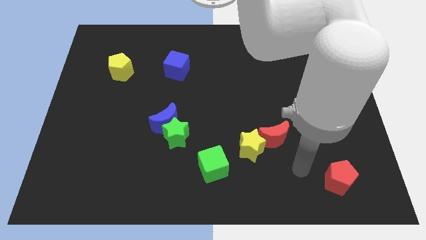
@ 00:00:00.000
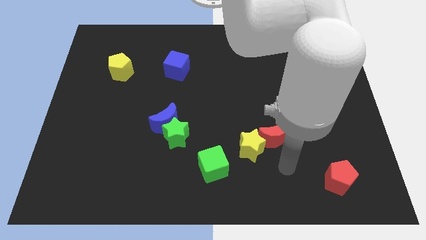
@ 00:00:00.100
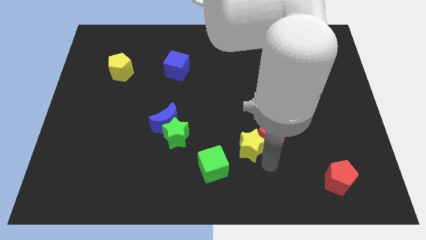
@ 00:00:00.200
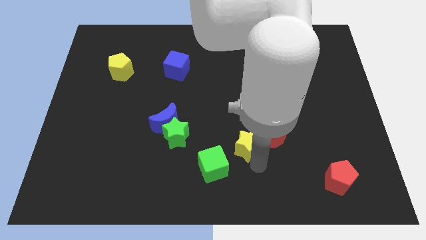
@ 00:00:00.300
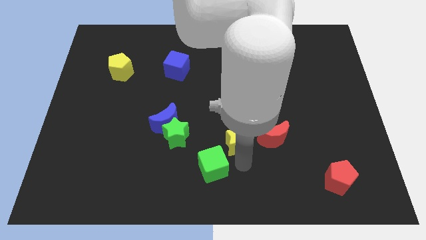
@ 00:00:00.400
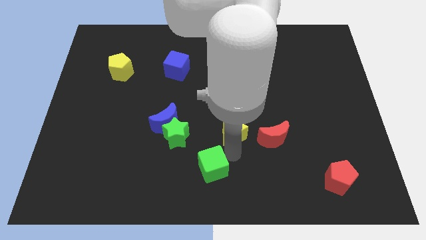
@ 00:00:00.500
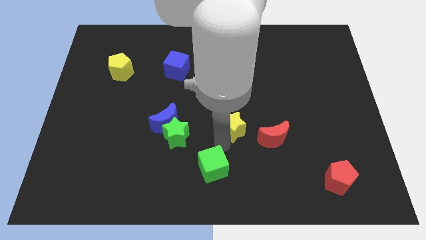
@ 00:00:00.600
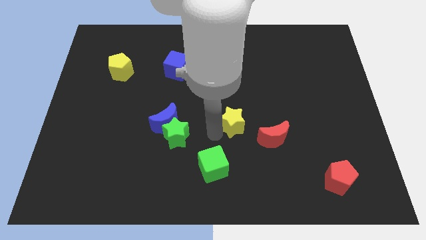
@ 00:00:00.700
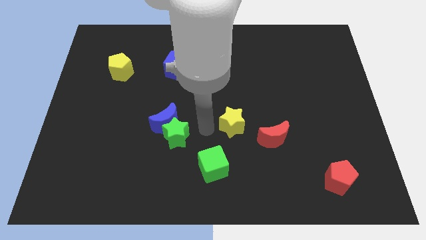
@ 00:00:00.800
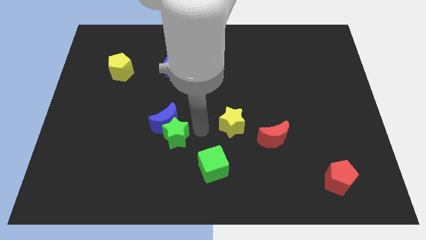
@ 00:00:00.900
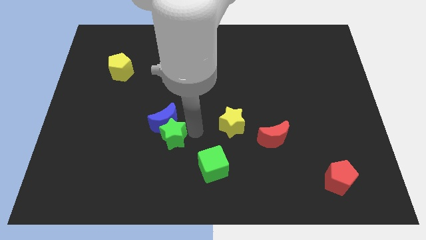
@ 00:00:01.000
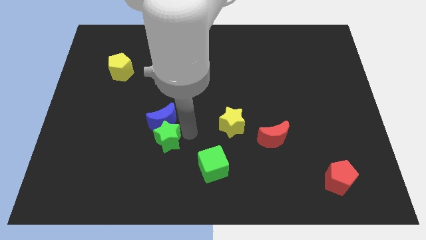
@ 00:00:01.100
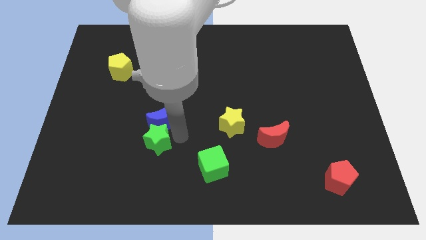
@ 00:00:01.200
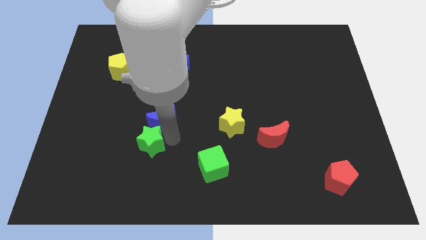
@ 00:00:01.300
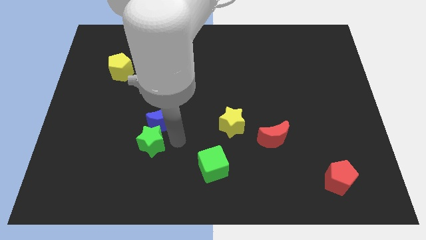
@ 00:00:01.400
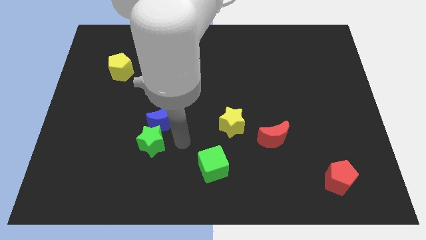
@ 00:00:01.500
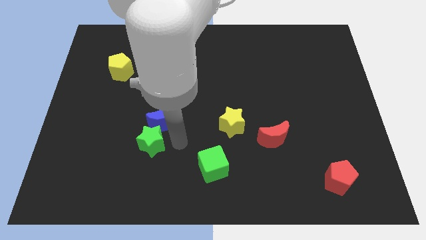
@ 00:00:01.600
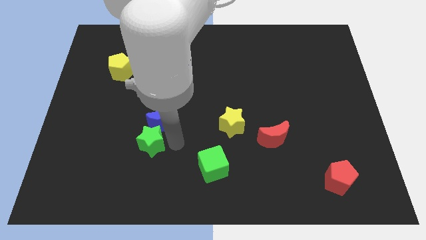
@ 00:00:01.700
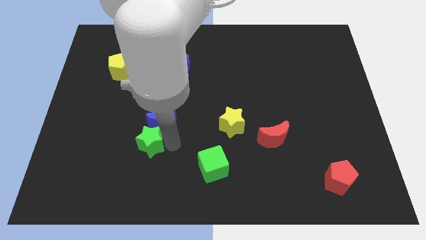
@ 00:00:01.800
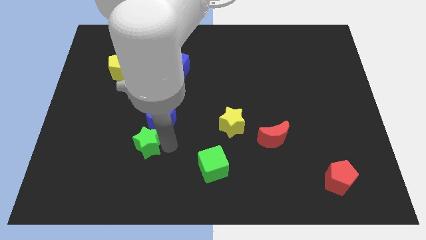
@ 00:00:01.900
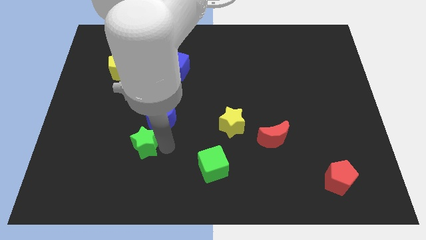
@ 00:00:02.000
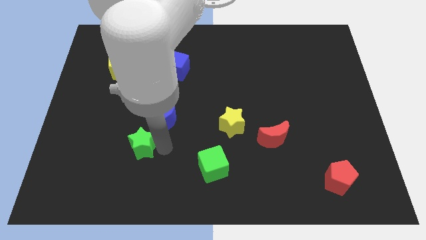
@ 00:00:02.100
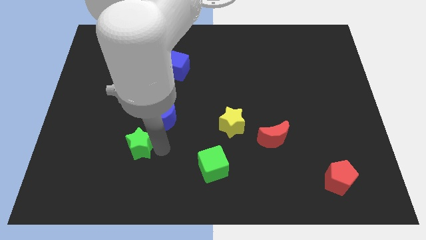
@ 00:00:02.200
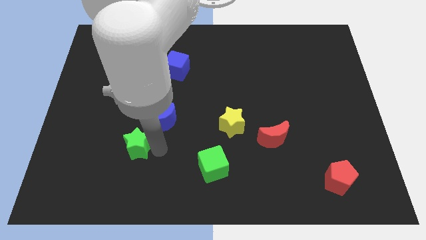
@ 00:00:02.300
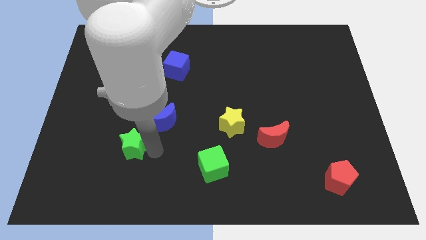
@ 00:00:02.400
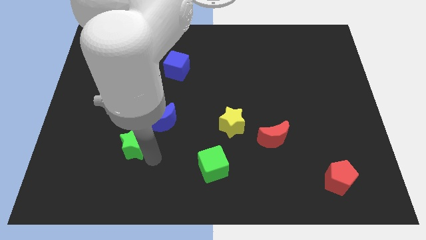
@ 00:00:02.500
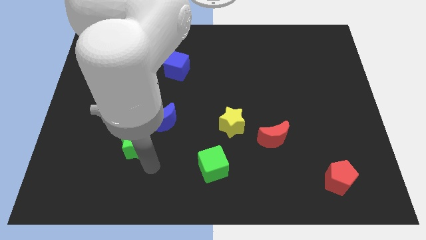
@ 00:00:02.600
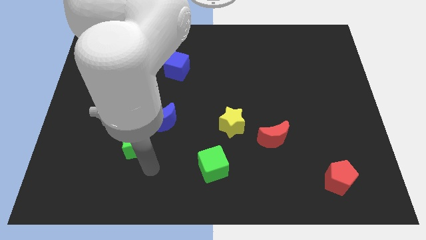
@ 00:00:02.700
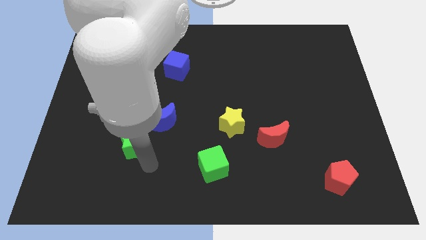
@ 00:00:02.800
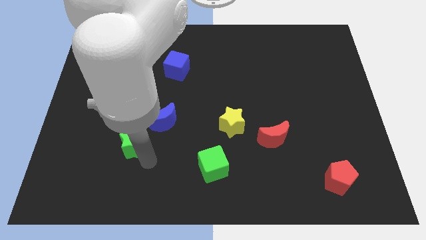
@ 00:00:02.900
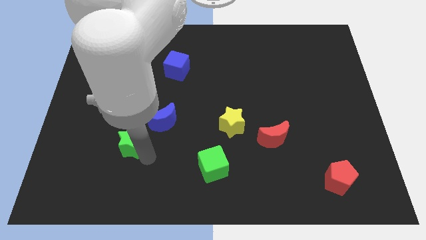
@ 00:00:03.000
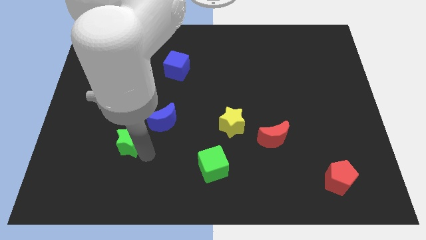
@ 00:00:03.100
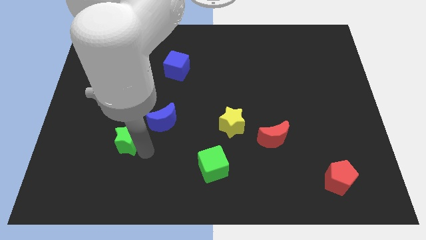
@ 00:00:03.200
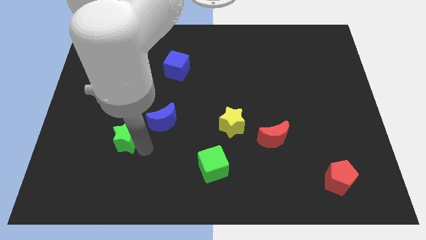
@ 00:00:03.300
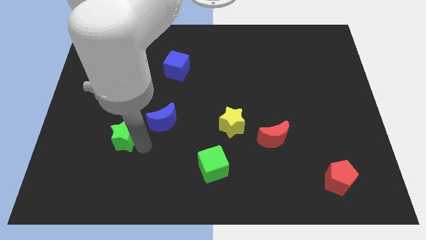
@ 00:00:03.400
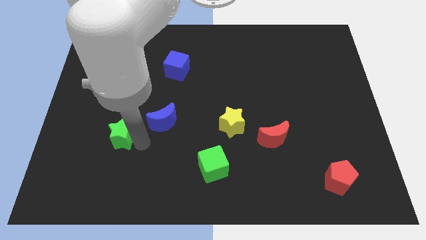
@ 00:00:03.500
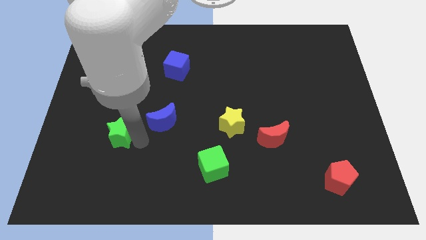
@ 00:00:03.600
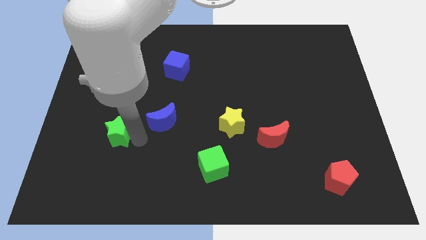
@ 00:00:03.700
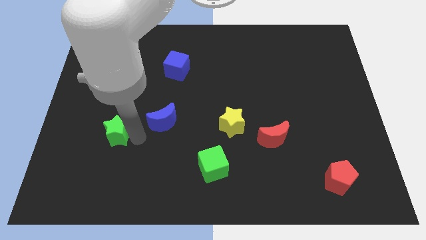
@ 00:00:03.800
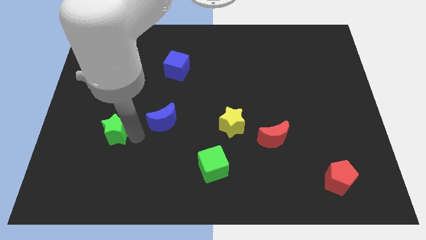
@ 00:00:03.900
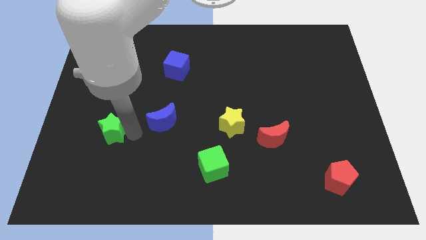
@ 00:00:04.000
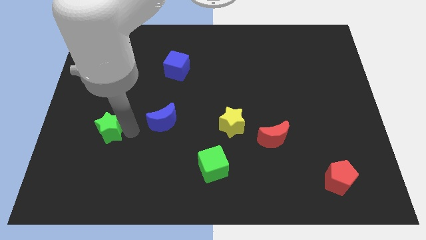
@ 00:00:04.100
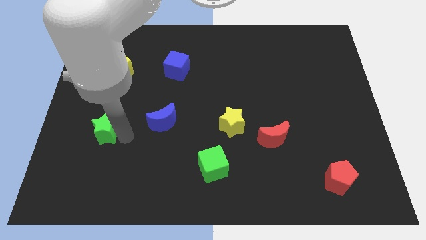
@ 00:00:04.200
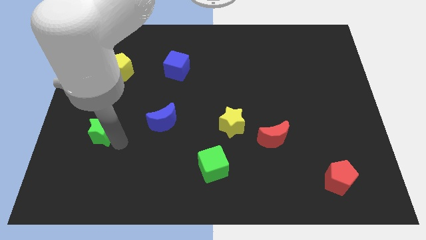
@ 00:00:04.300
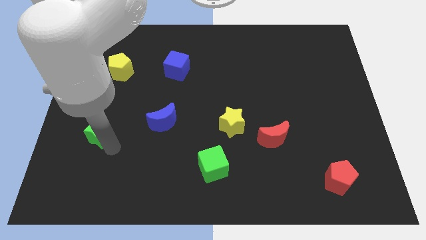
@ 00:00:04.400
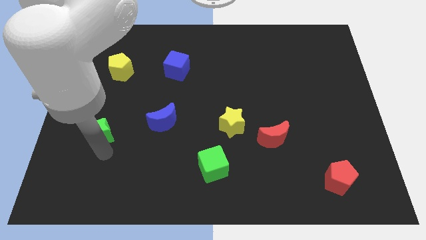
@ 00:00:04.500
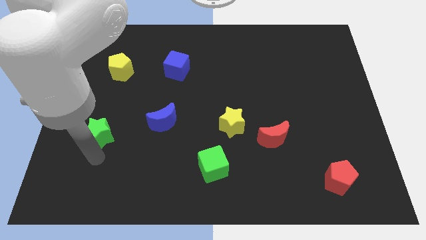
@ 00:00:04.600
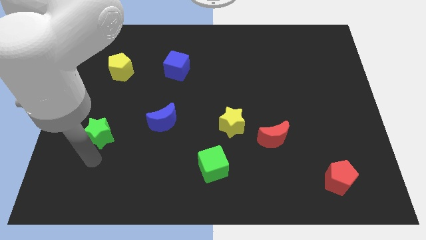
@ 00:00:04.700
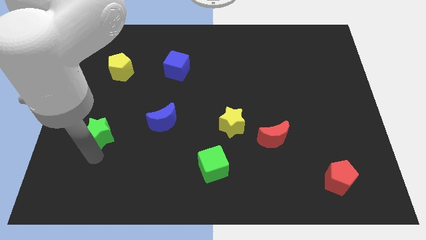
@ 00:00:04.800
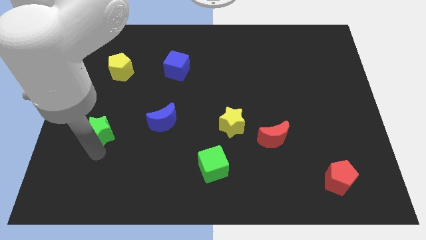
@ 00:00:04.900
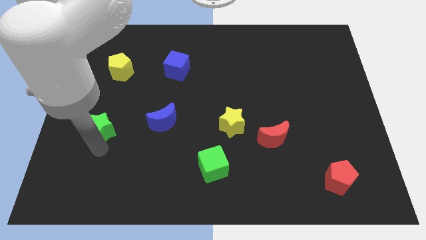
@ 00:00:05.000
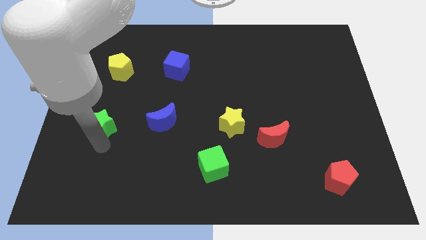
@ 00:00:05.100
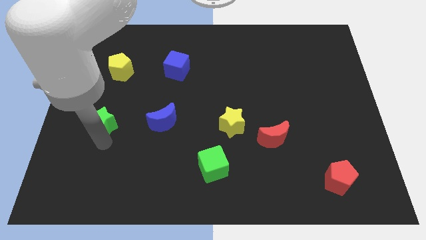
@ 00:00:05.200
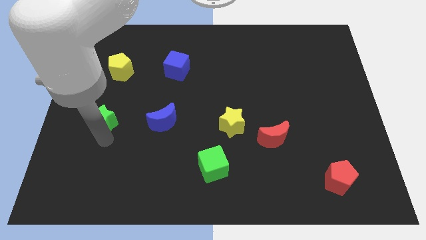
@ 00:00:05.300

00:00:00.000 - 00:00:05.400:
put the green star to the bottom of the yellow pentagon

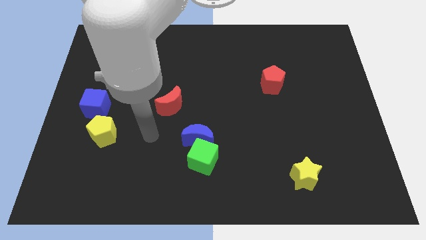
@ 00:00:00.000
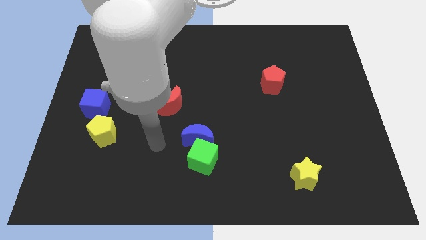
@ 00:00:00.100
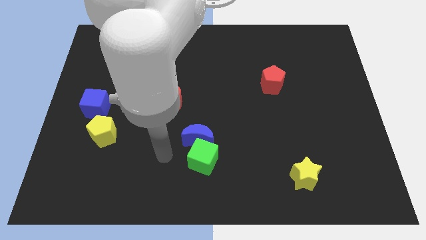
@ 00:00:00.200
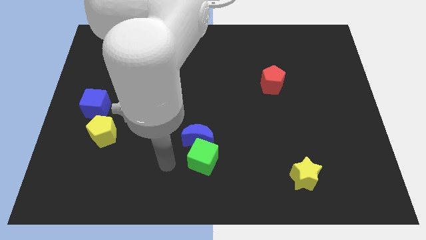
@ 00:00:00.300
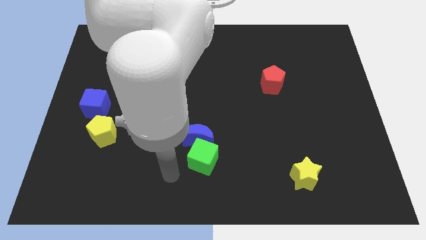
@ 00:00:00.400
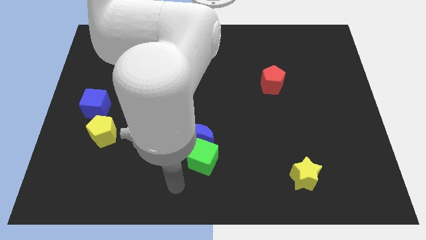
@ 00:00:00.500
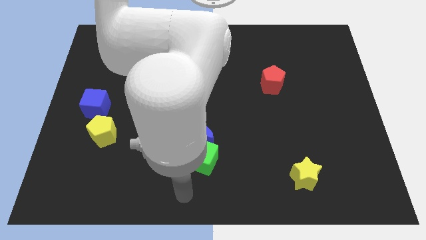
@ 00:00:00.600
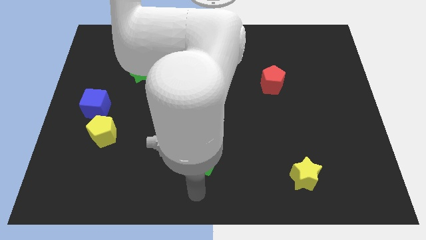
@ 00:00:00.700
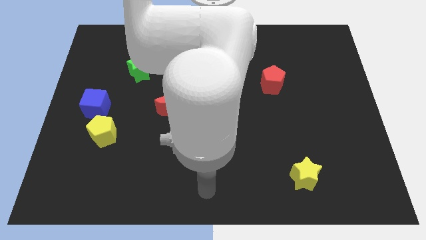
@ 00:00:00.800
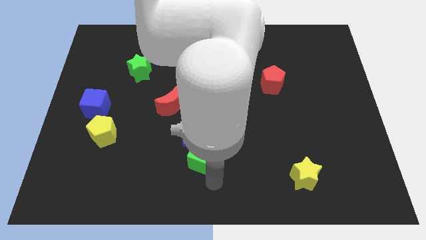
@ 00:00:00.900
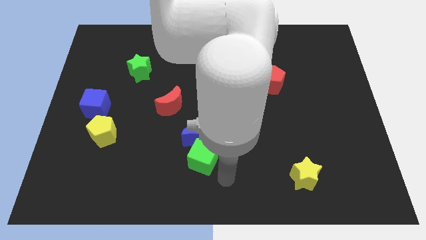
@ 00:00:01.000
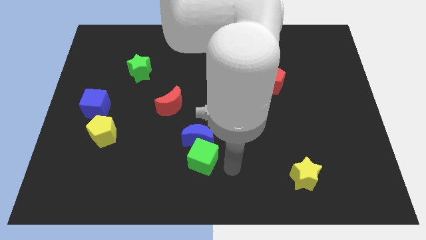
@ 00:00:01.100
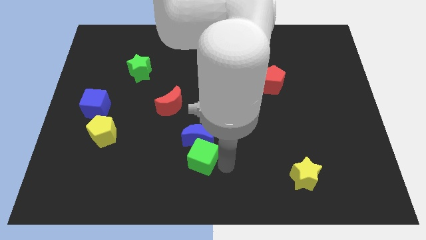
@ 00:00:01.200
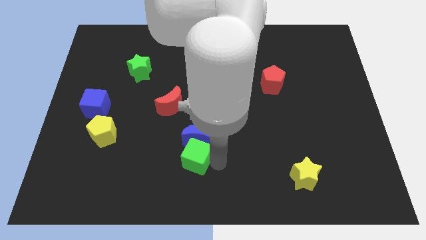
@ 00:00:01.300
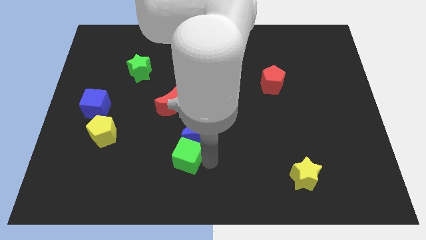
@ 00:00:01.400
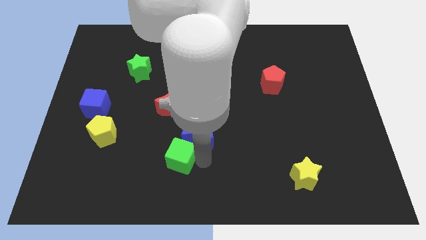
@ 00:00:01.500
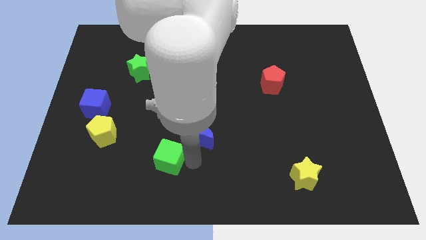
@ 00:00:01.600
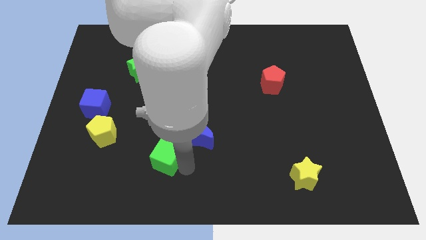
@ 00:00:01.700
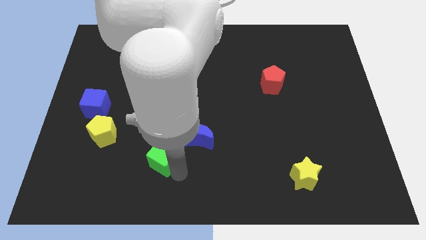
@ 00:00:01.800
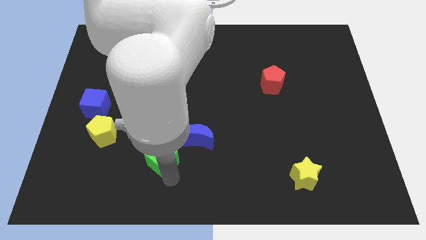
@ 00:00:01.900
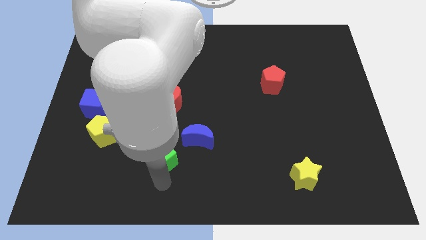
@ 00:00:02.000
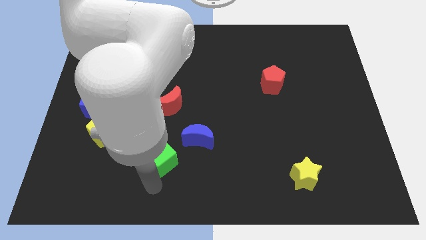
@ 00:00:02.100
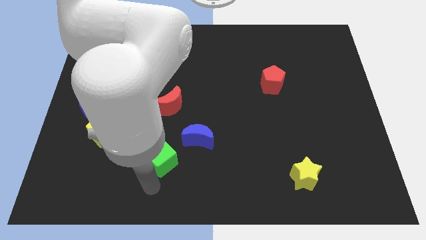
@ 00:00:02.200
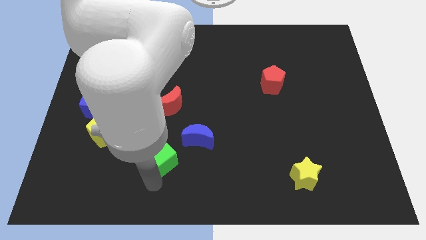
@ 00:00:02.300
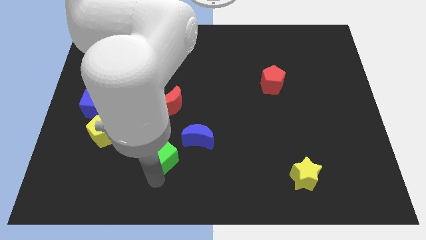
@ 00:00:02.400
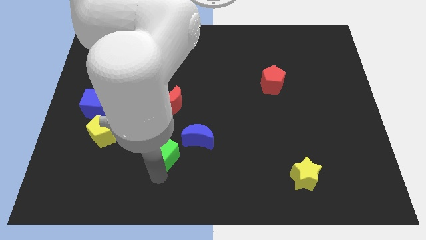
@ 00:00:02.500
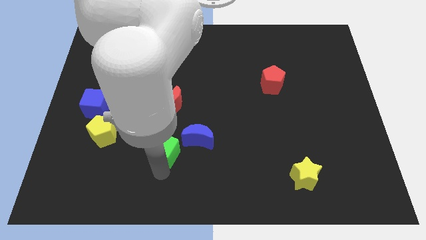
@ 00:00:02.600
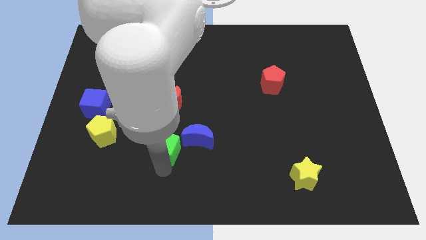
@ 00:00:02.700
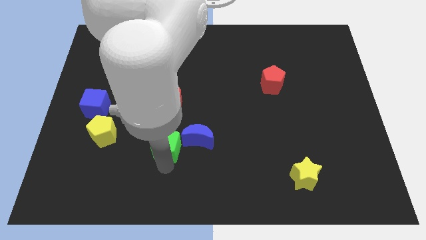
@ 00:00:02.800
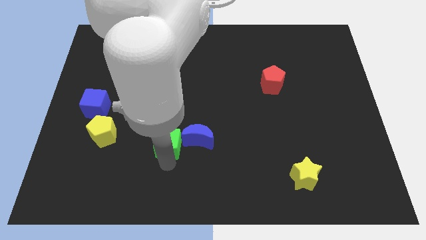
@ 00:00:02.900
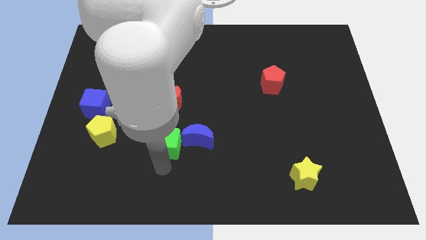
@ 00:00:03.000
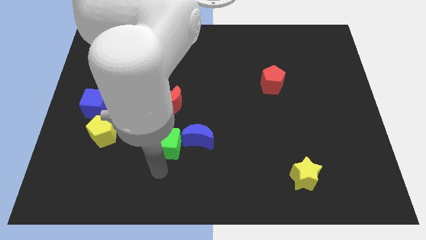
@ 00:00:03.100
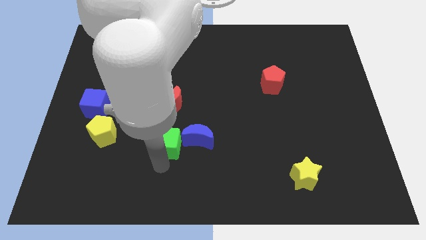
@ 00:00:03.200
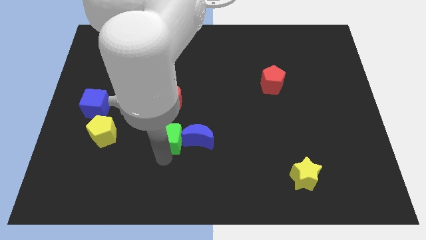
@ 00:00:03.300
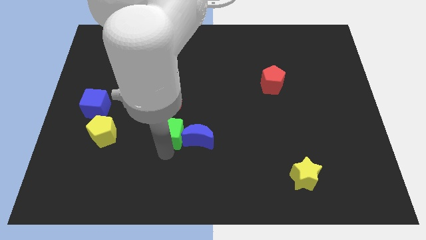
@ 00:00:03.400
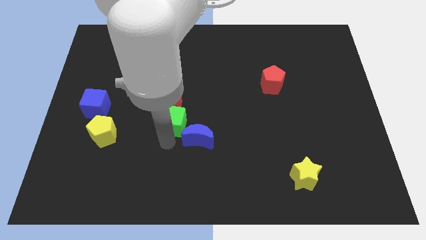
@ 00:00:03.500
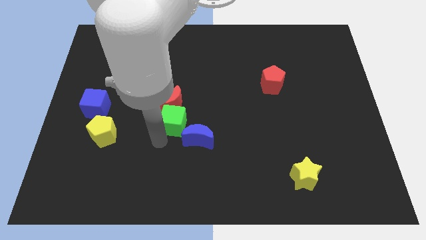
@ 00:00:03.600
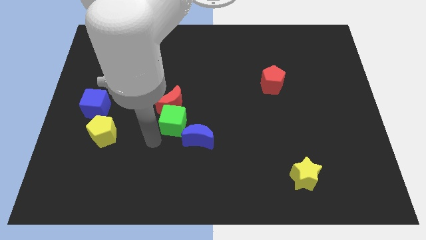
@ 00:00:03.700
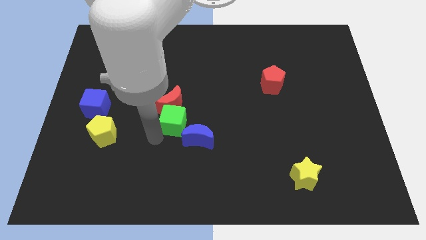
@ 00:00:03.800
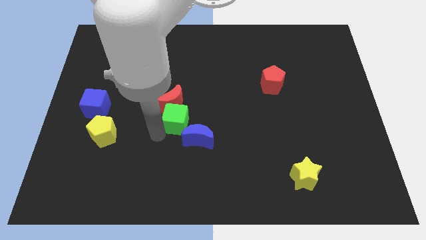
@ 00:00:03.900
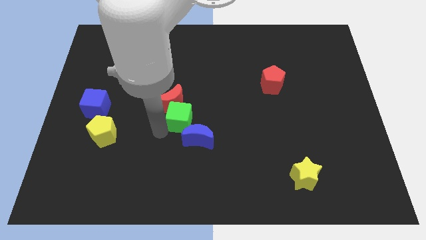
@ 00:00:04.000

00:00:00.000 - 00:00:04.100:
push the green cube to the top side of the blue moon
